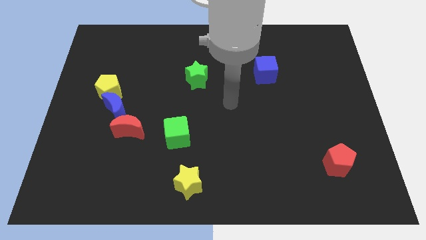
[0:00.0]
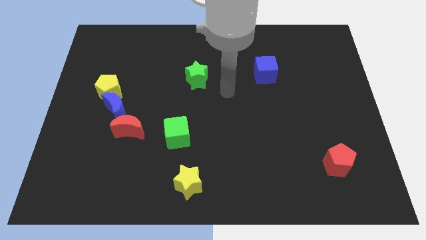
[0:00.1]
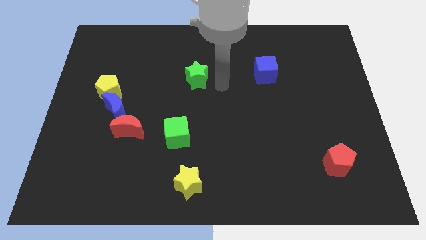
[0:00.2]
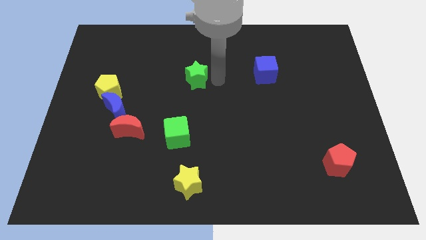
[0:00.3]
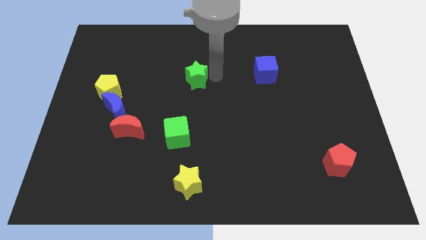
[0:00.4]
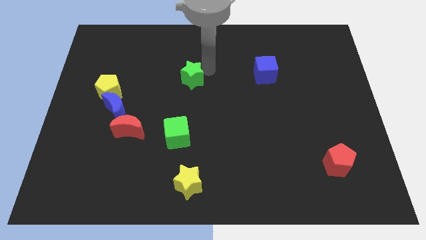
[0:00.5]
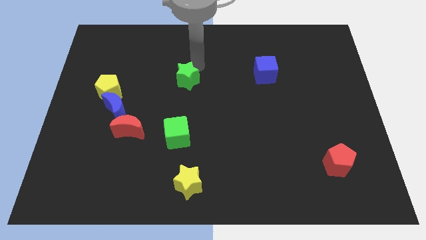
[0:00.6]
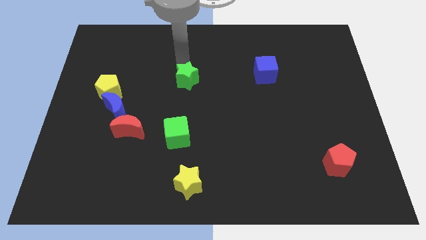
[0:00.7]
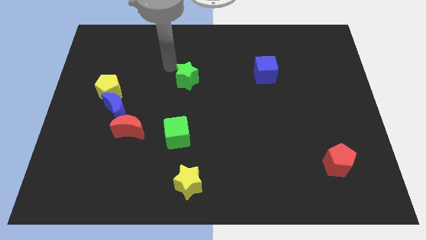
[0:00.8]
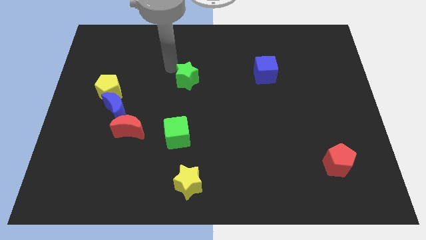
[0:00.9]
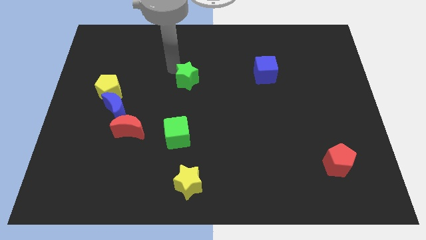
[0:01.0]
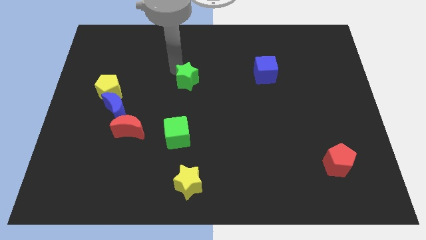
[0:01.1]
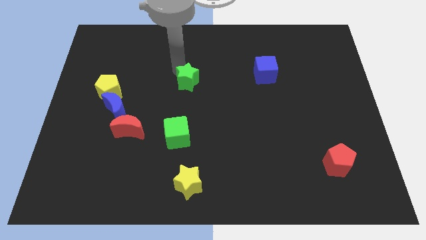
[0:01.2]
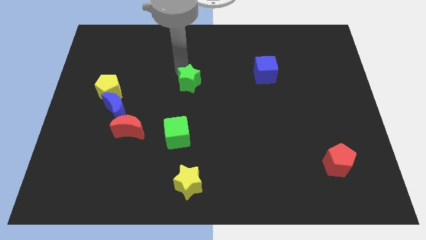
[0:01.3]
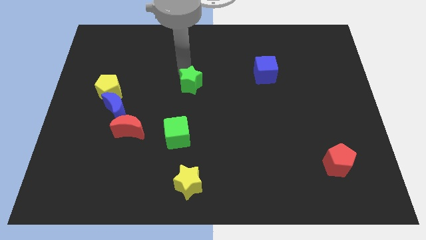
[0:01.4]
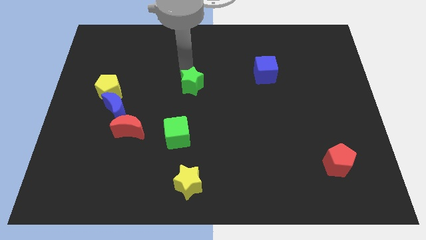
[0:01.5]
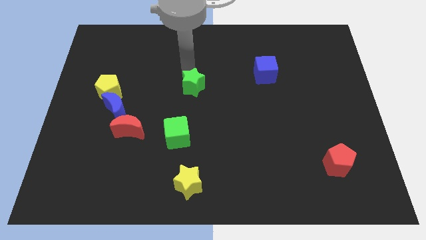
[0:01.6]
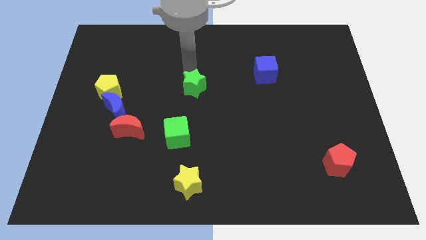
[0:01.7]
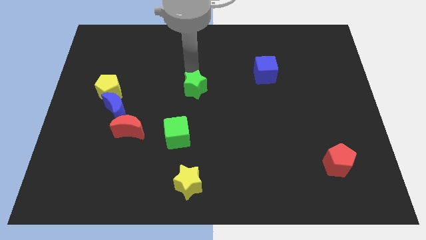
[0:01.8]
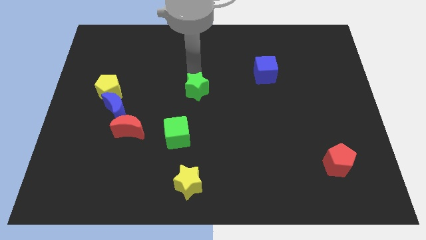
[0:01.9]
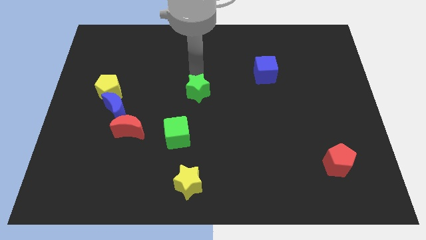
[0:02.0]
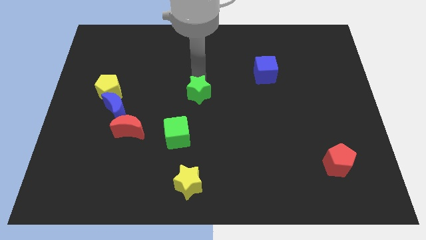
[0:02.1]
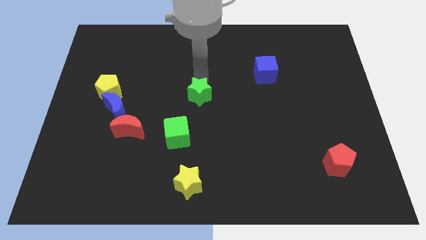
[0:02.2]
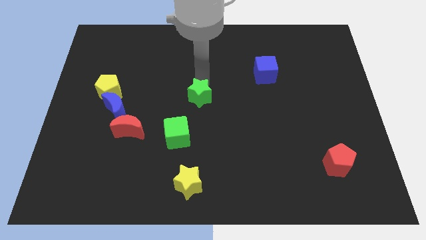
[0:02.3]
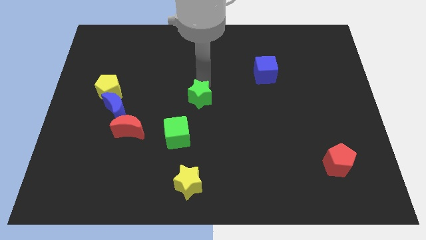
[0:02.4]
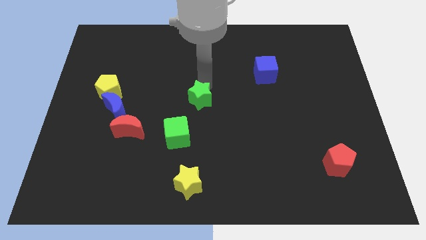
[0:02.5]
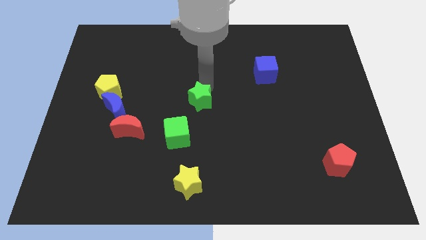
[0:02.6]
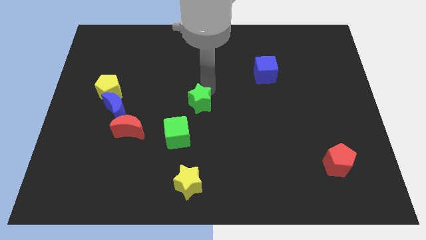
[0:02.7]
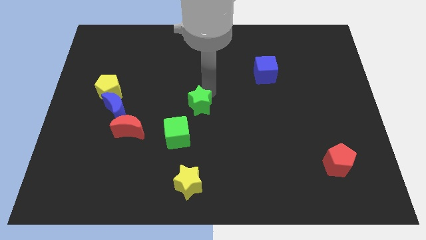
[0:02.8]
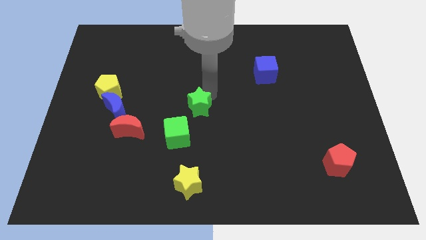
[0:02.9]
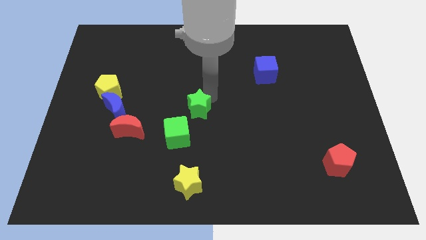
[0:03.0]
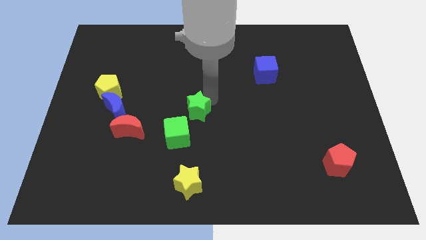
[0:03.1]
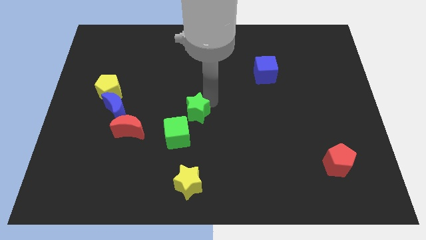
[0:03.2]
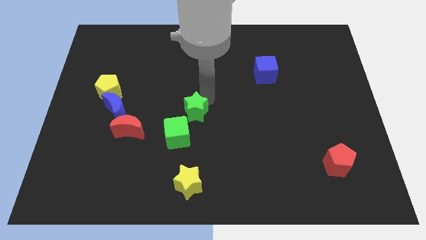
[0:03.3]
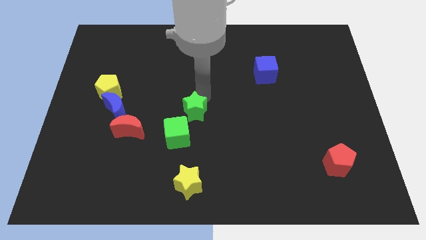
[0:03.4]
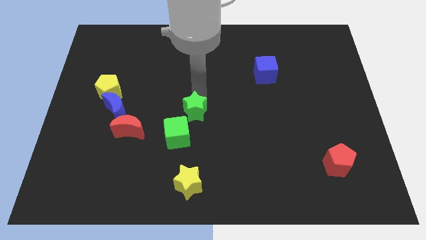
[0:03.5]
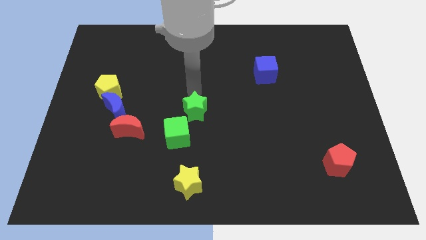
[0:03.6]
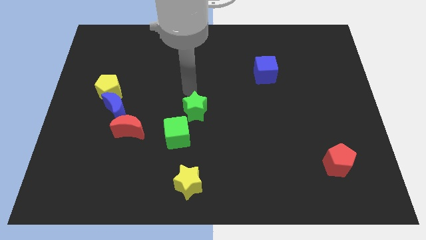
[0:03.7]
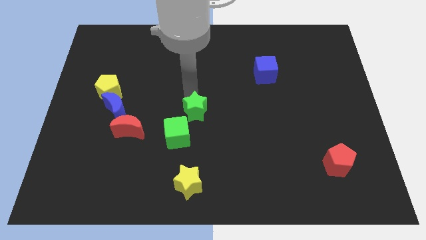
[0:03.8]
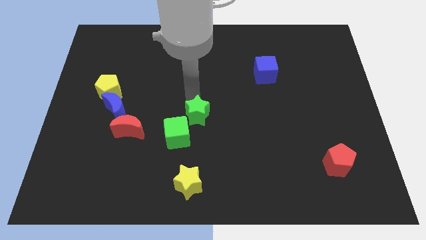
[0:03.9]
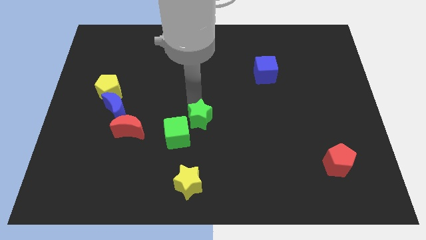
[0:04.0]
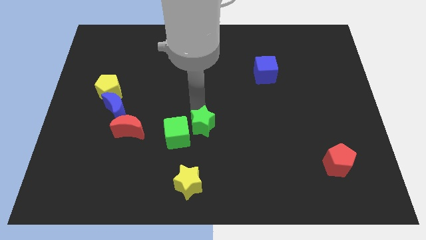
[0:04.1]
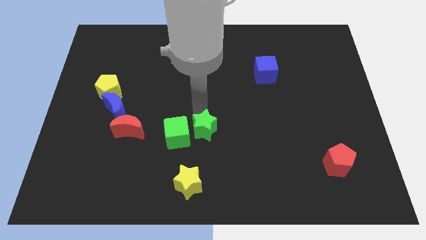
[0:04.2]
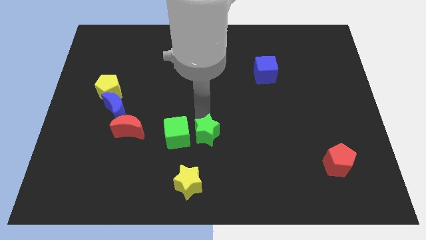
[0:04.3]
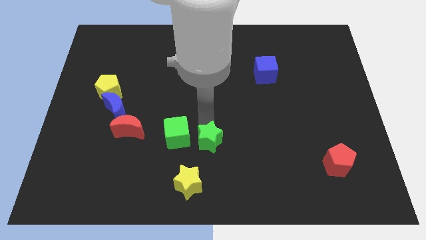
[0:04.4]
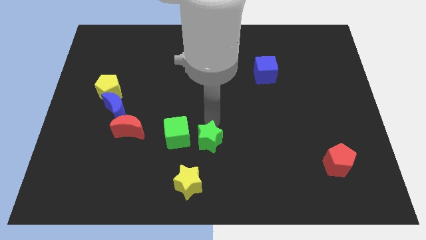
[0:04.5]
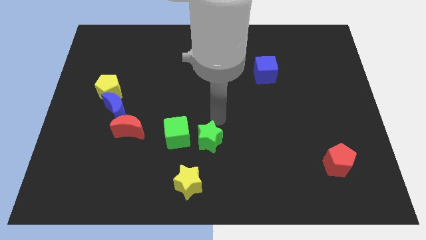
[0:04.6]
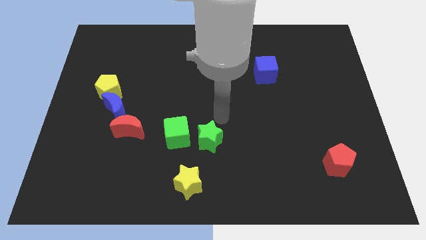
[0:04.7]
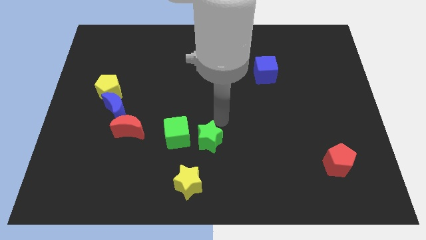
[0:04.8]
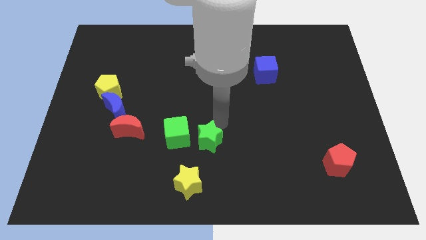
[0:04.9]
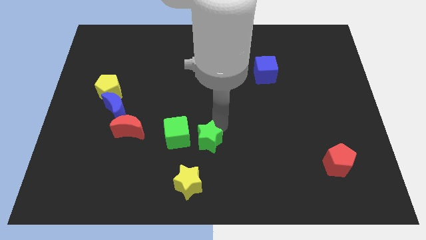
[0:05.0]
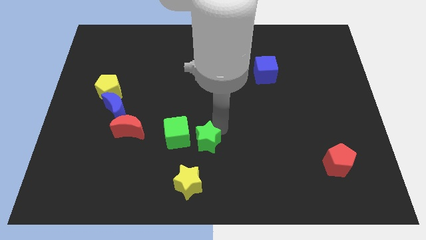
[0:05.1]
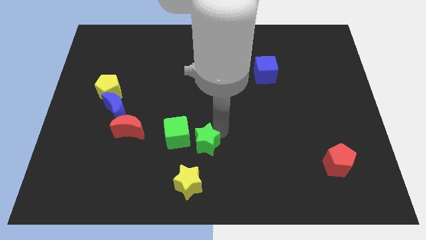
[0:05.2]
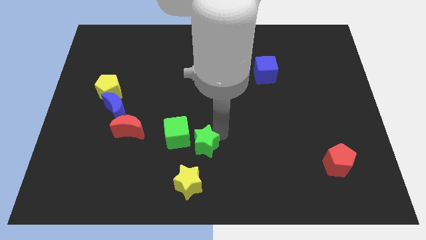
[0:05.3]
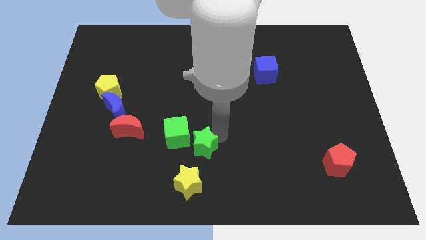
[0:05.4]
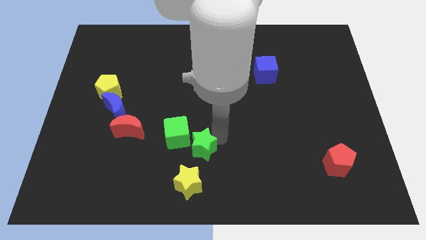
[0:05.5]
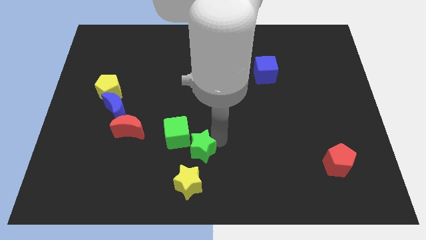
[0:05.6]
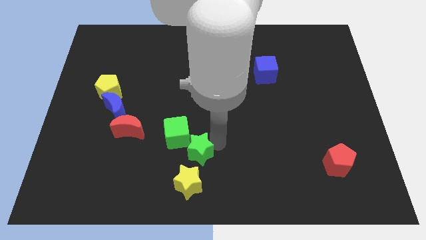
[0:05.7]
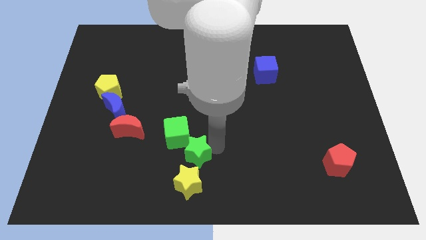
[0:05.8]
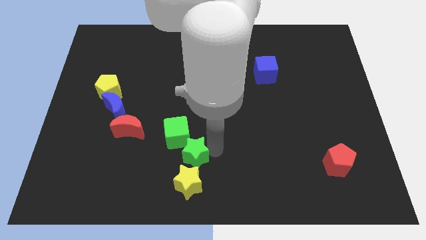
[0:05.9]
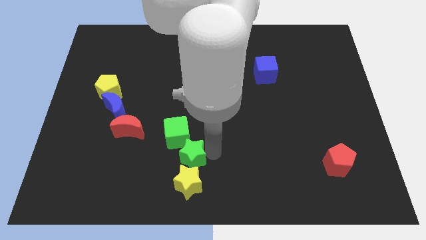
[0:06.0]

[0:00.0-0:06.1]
move the green star to the yellow star

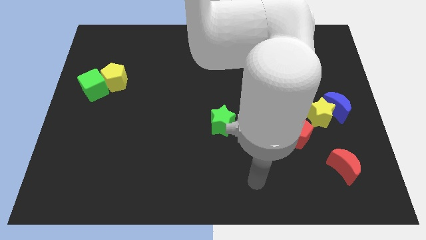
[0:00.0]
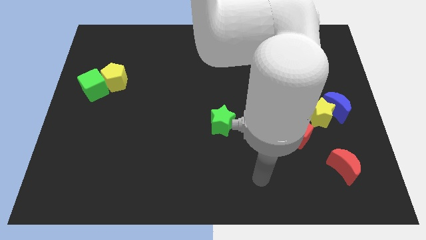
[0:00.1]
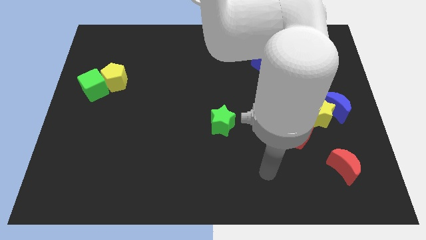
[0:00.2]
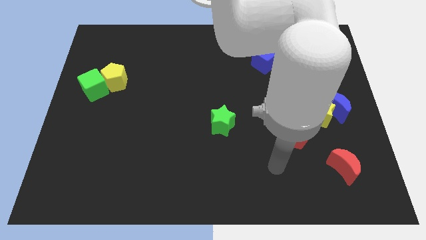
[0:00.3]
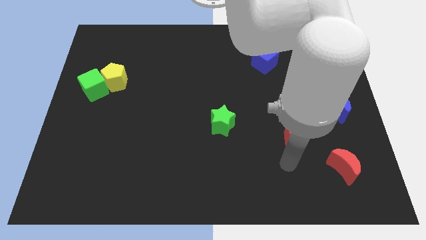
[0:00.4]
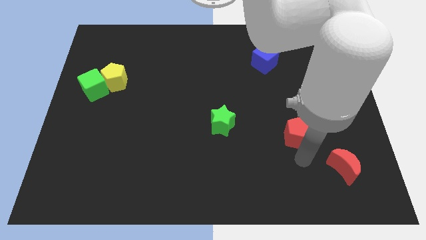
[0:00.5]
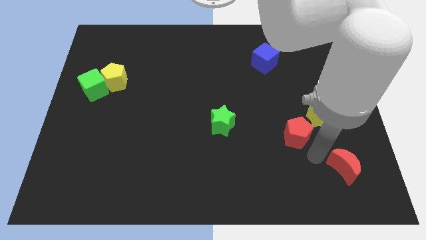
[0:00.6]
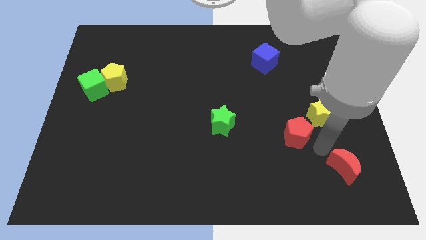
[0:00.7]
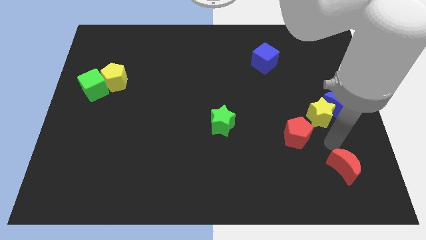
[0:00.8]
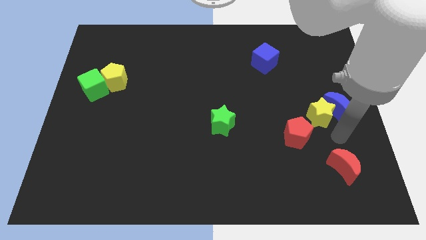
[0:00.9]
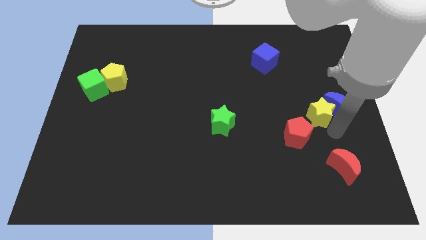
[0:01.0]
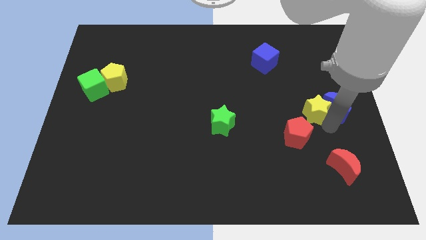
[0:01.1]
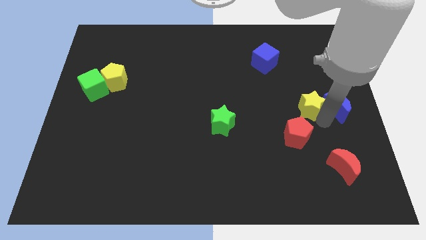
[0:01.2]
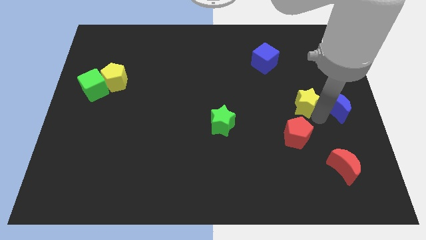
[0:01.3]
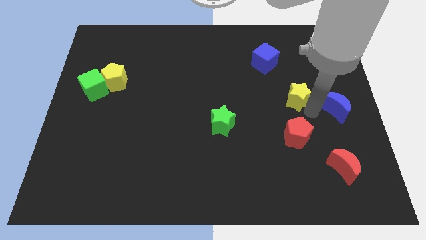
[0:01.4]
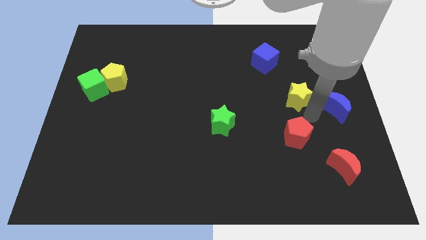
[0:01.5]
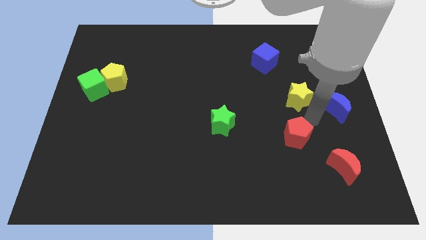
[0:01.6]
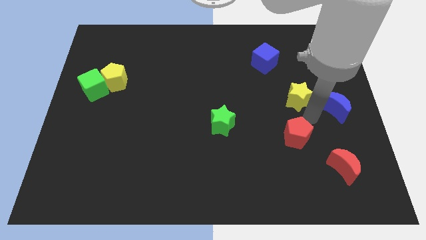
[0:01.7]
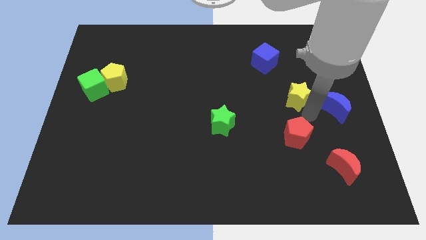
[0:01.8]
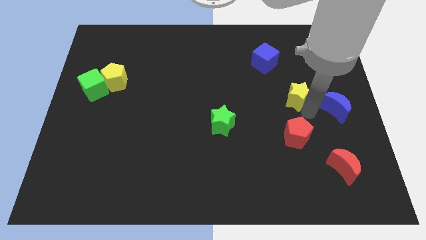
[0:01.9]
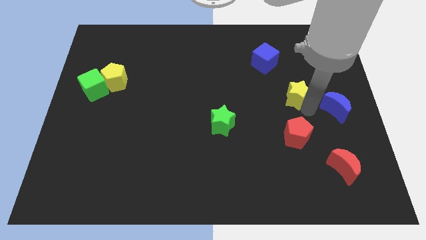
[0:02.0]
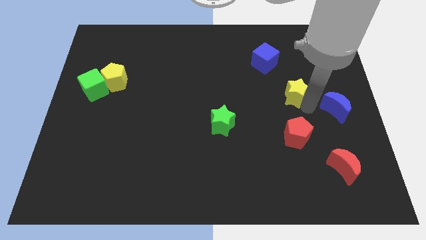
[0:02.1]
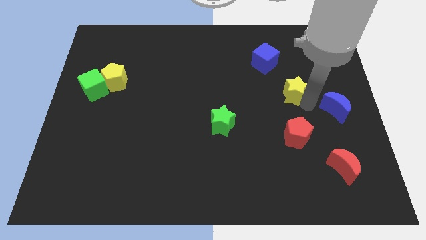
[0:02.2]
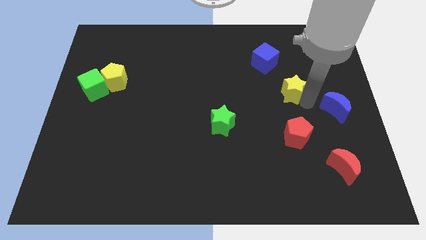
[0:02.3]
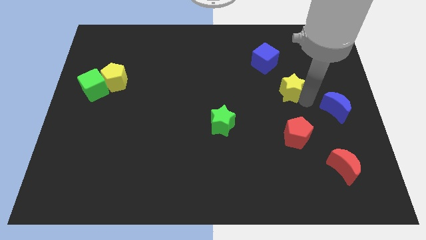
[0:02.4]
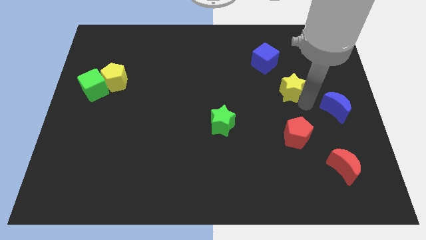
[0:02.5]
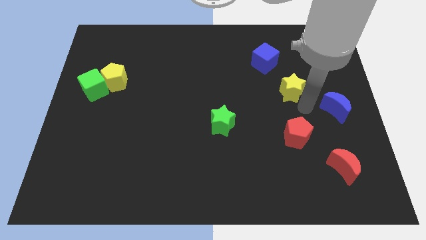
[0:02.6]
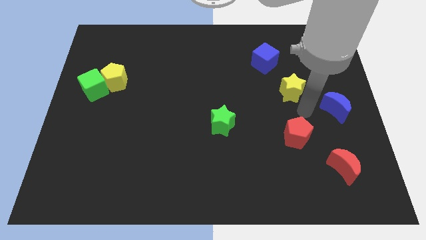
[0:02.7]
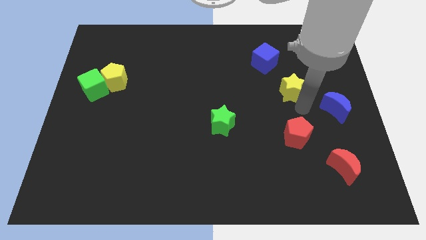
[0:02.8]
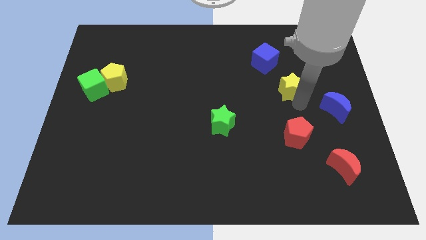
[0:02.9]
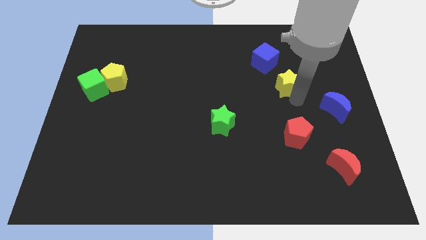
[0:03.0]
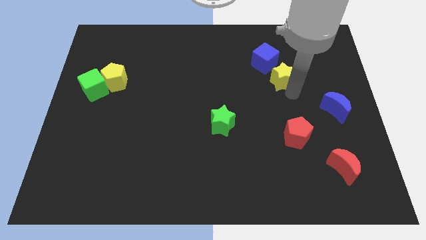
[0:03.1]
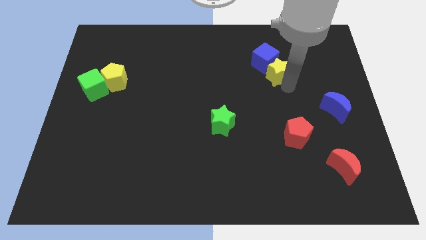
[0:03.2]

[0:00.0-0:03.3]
slide the yellow star to the blue cube
